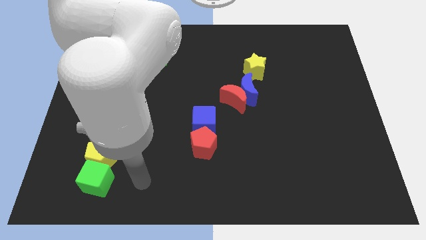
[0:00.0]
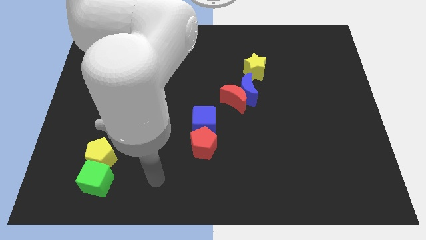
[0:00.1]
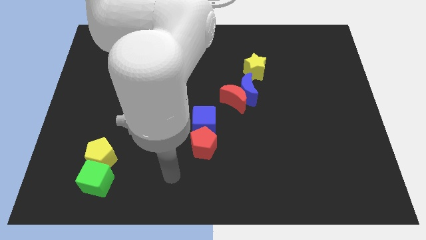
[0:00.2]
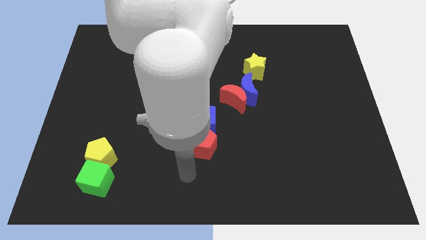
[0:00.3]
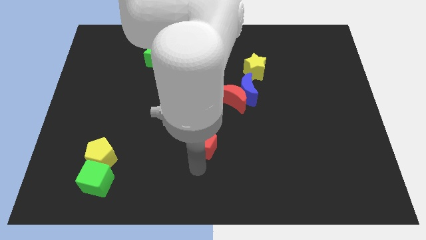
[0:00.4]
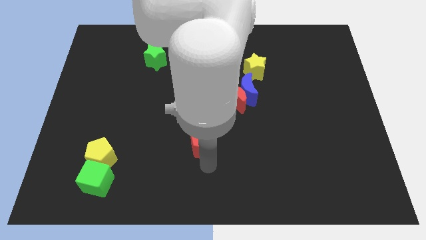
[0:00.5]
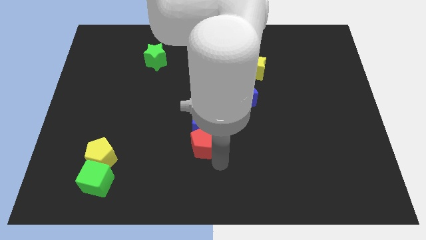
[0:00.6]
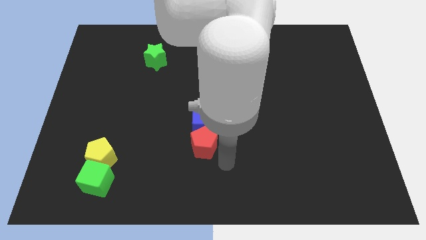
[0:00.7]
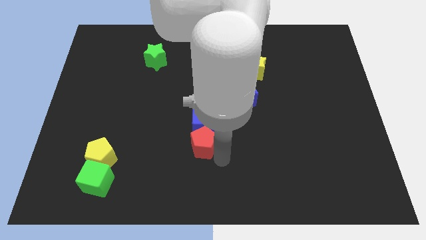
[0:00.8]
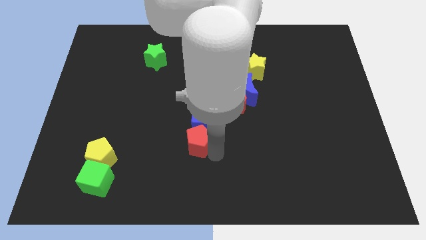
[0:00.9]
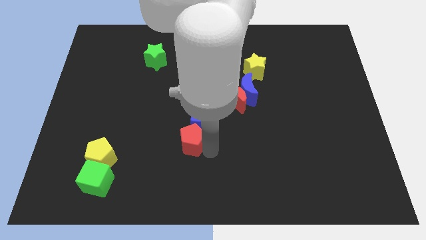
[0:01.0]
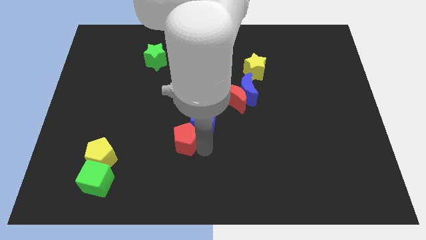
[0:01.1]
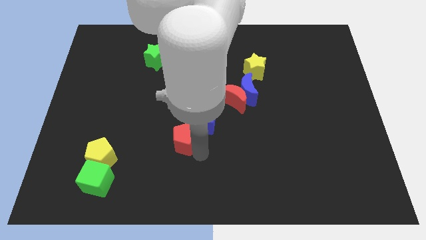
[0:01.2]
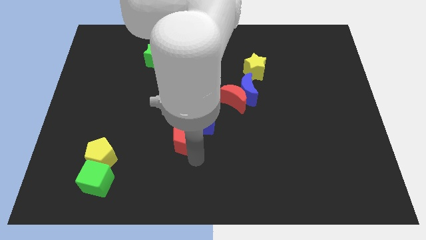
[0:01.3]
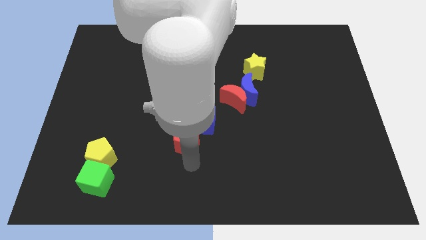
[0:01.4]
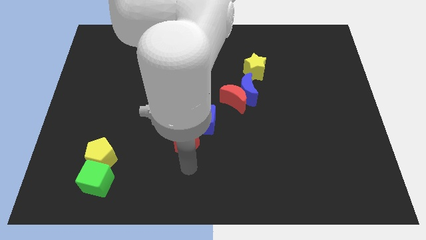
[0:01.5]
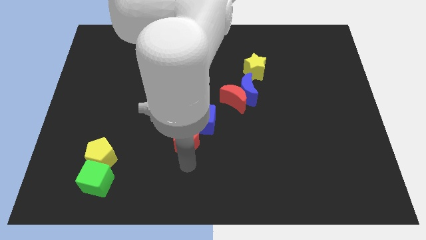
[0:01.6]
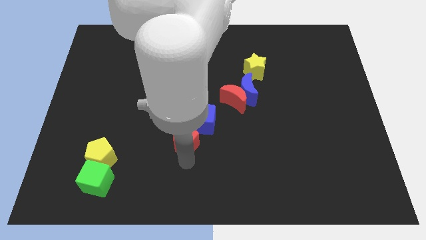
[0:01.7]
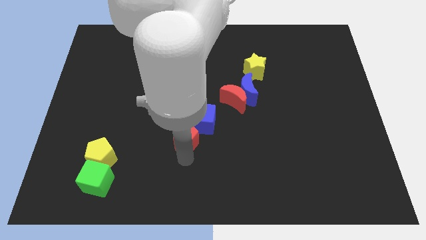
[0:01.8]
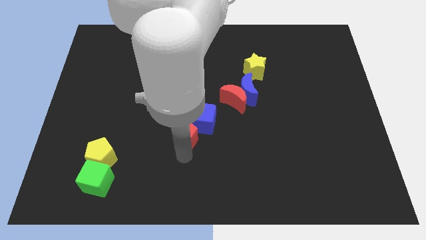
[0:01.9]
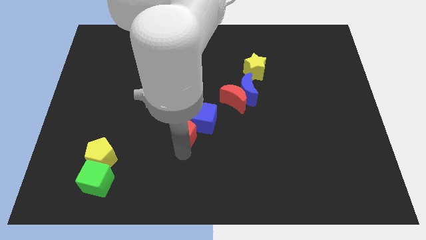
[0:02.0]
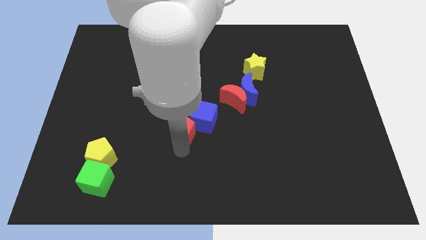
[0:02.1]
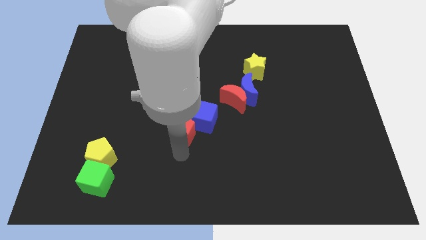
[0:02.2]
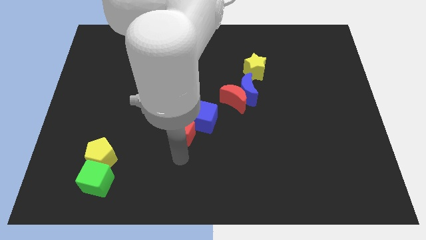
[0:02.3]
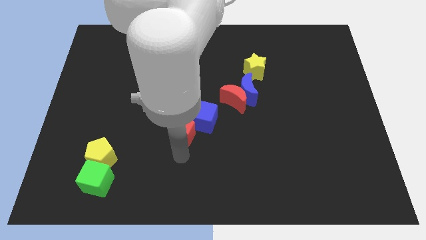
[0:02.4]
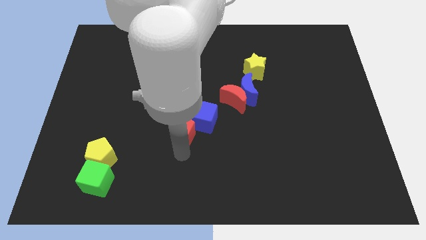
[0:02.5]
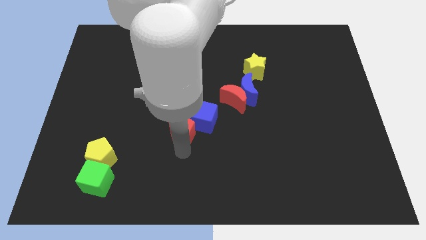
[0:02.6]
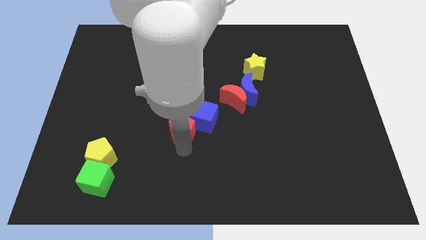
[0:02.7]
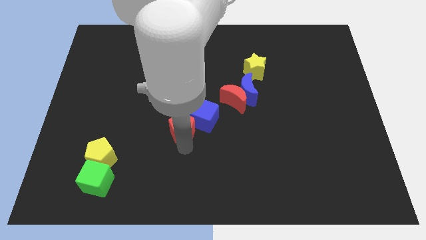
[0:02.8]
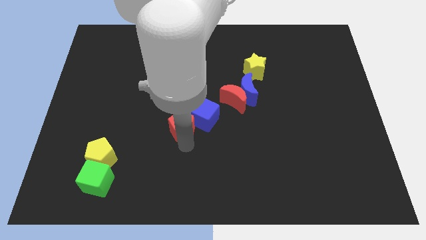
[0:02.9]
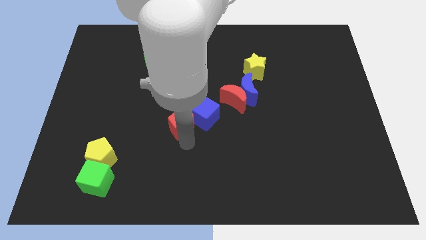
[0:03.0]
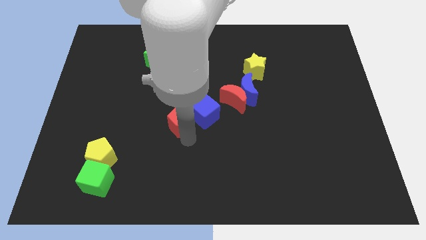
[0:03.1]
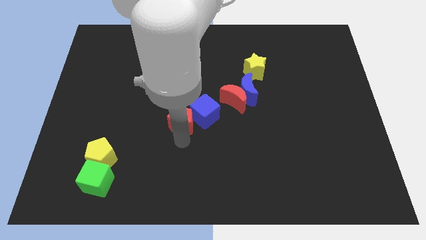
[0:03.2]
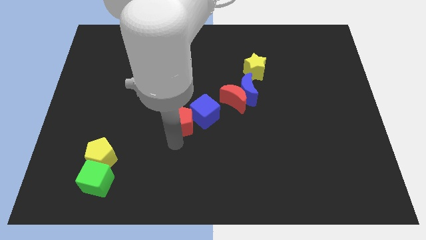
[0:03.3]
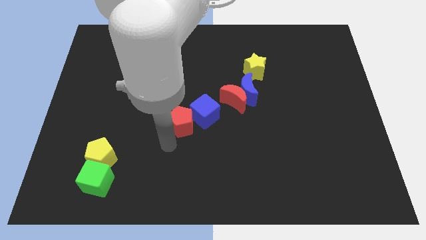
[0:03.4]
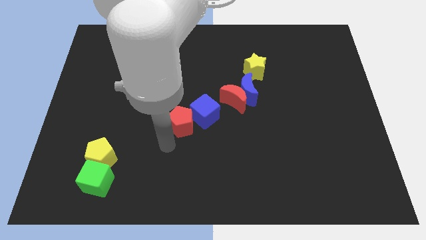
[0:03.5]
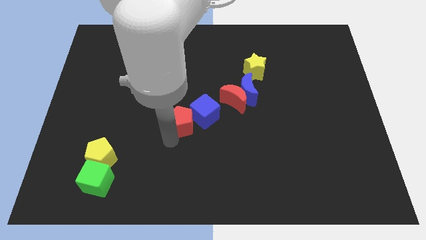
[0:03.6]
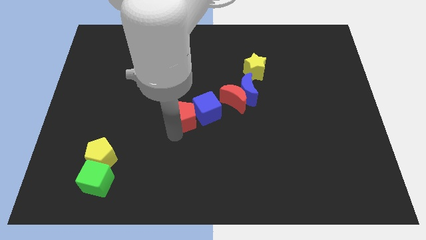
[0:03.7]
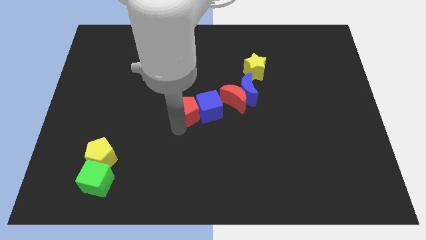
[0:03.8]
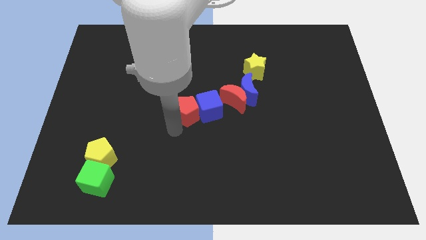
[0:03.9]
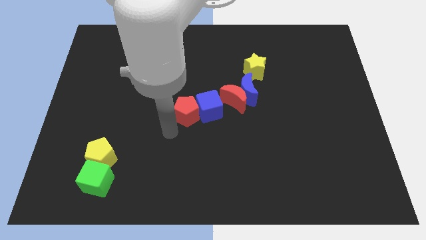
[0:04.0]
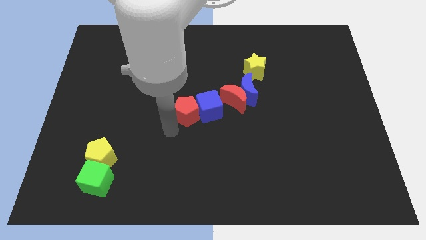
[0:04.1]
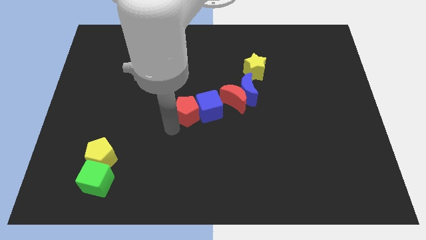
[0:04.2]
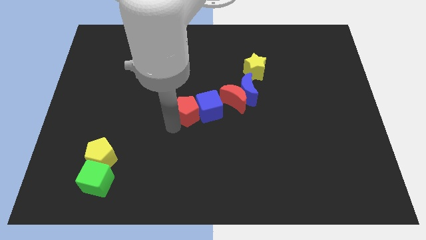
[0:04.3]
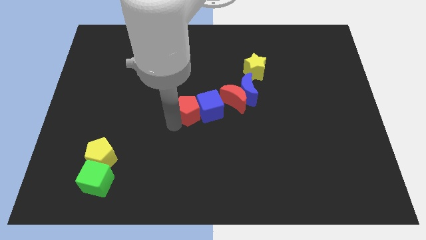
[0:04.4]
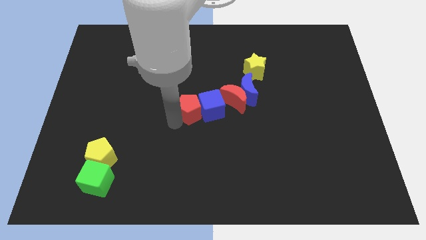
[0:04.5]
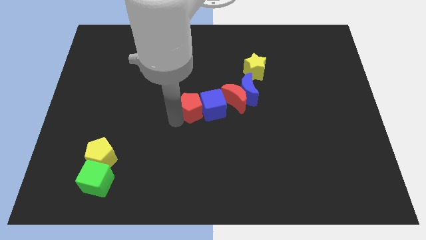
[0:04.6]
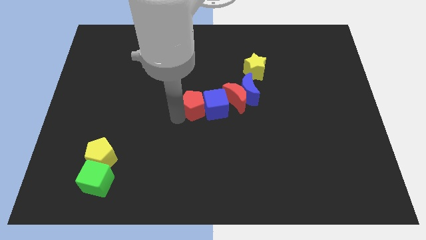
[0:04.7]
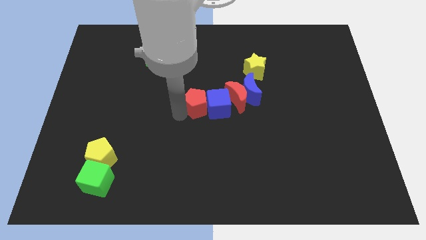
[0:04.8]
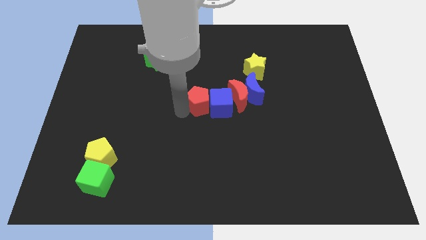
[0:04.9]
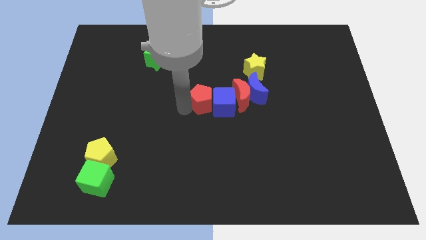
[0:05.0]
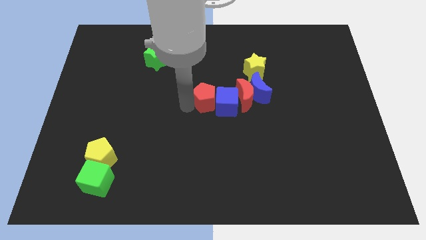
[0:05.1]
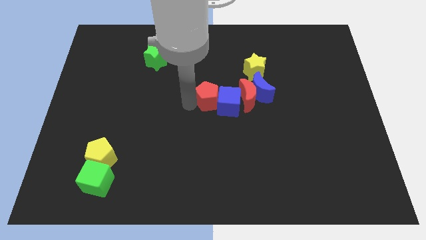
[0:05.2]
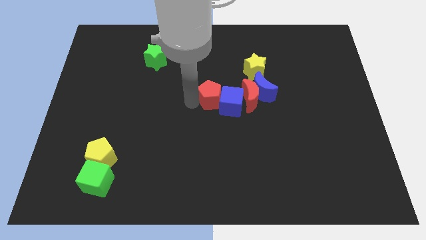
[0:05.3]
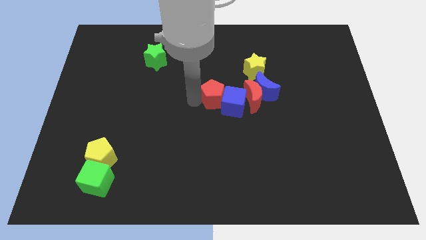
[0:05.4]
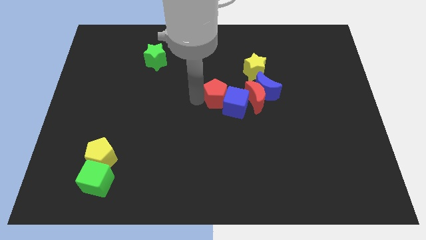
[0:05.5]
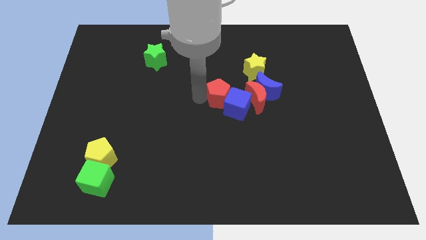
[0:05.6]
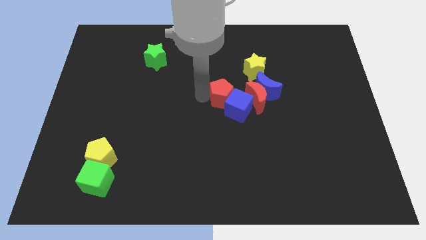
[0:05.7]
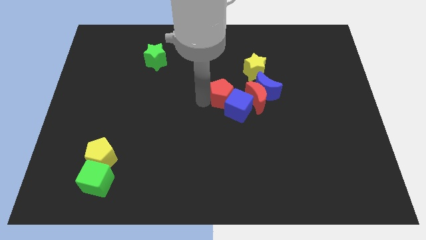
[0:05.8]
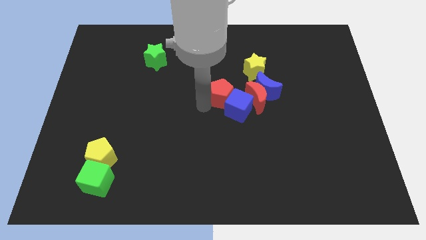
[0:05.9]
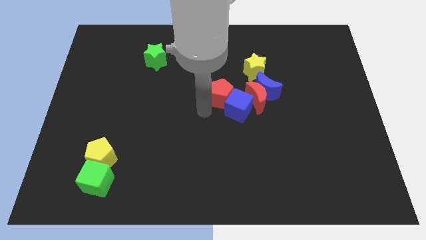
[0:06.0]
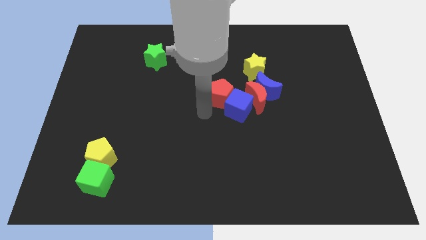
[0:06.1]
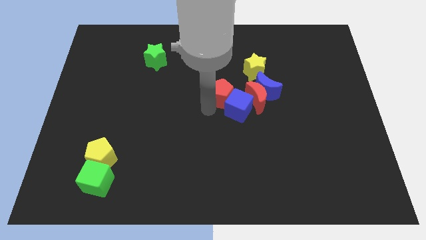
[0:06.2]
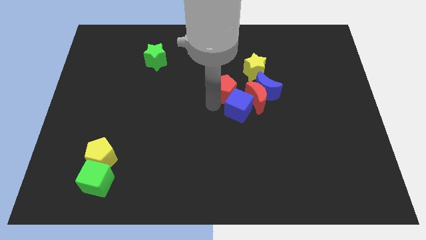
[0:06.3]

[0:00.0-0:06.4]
move the red pentagon to the top left of the red moon

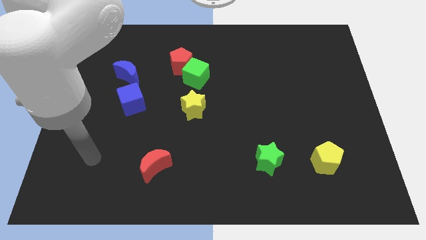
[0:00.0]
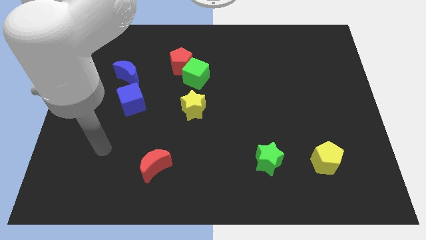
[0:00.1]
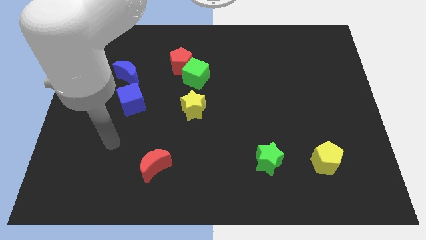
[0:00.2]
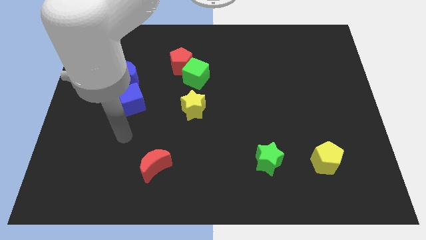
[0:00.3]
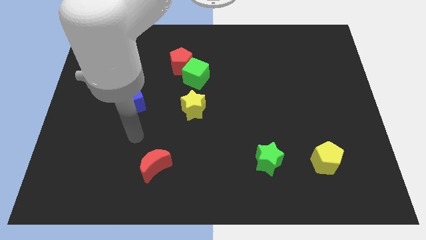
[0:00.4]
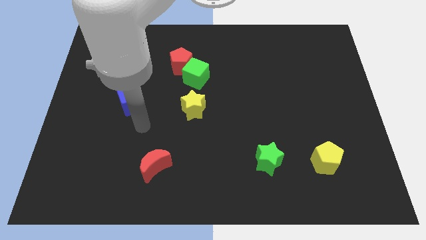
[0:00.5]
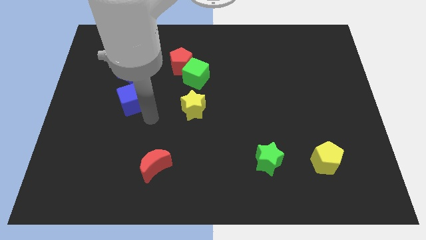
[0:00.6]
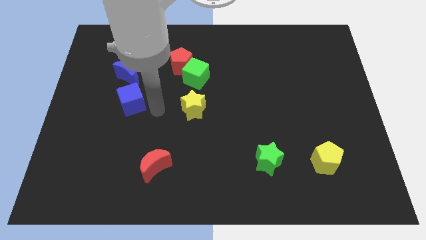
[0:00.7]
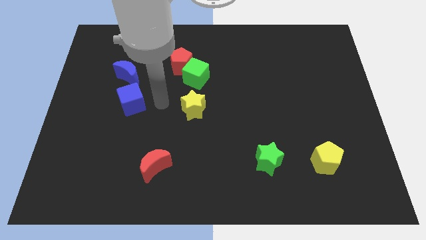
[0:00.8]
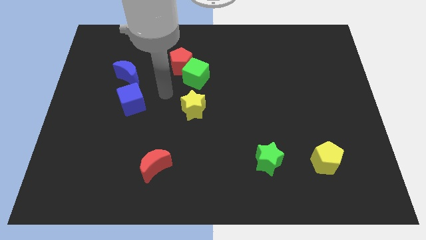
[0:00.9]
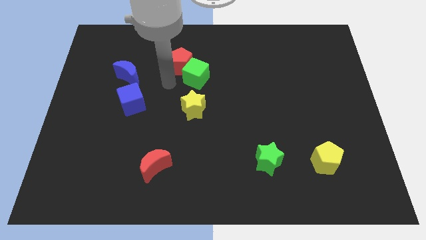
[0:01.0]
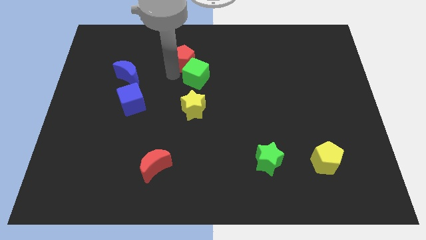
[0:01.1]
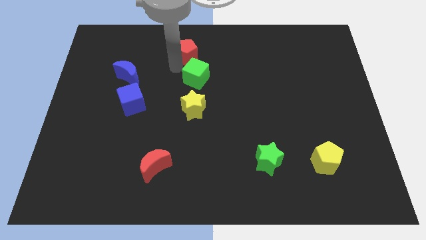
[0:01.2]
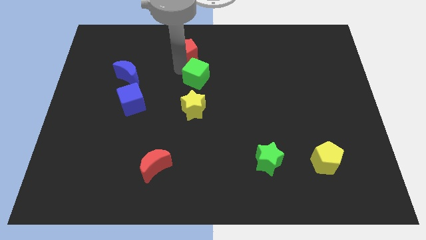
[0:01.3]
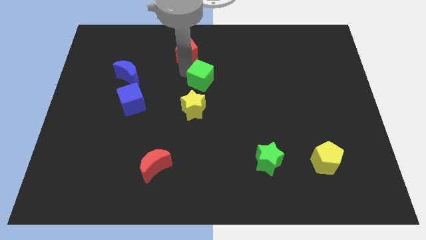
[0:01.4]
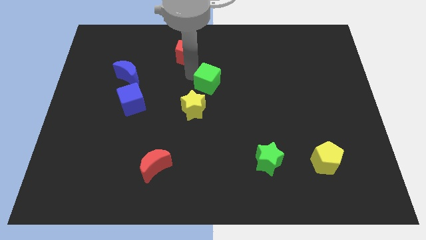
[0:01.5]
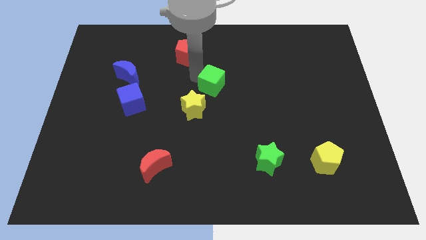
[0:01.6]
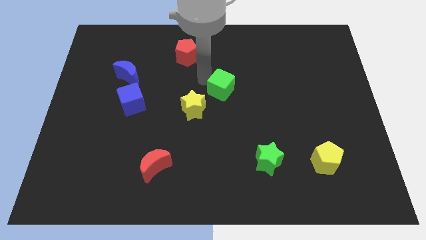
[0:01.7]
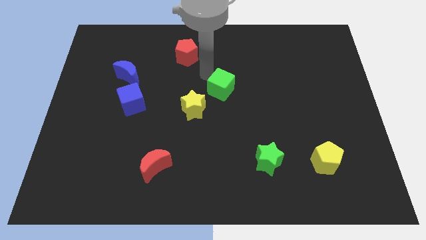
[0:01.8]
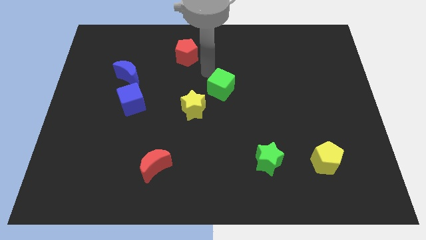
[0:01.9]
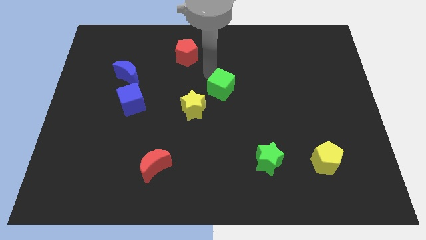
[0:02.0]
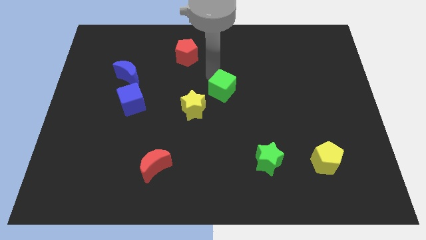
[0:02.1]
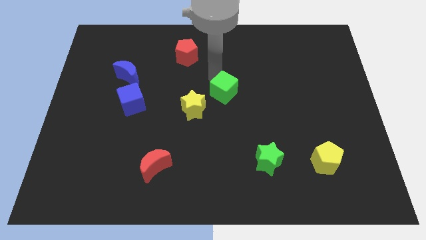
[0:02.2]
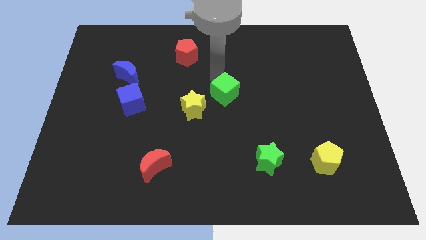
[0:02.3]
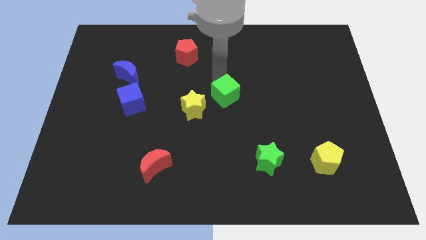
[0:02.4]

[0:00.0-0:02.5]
slide the green cube to the right of the yellow star
